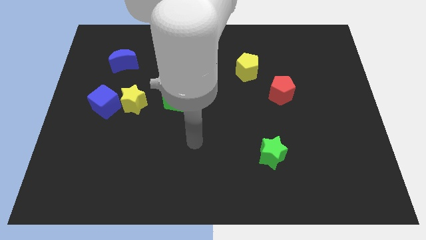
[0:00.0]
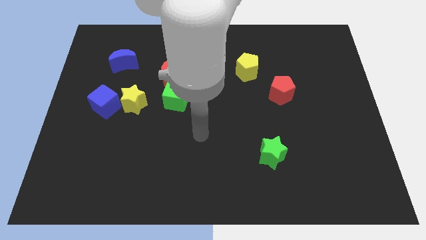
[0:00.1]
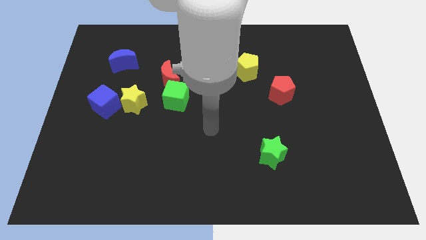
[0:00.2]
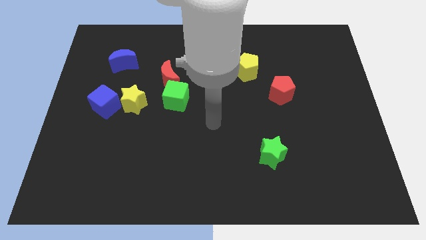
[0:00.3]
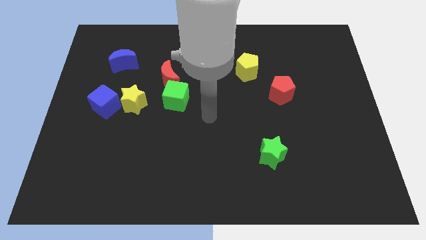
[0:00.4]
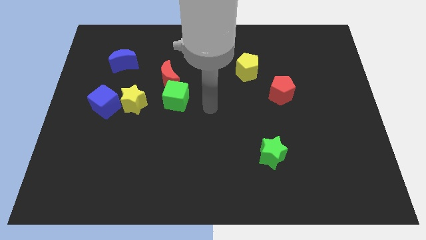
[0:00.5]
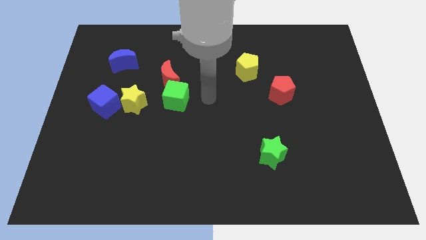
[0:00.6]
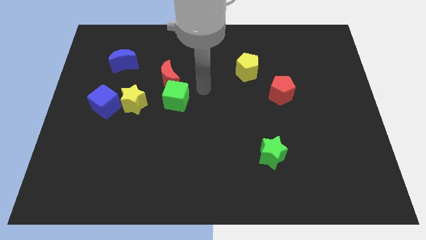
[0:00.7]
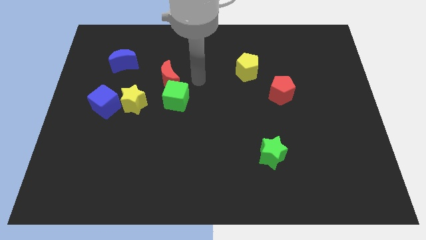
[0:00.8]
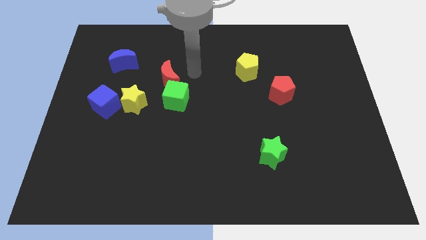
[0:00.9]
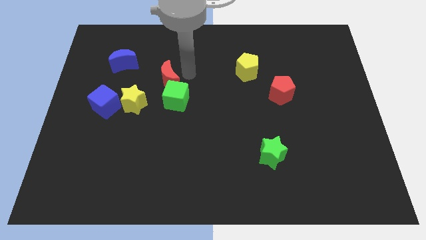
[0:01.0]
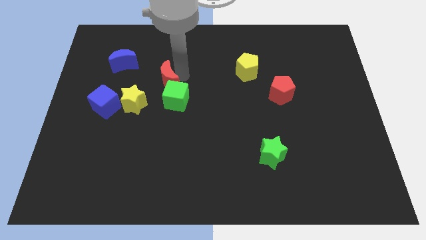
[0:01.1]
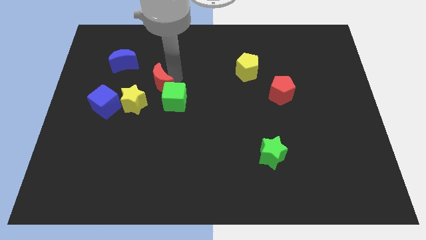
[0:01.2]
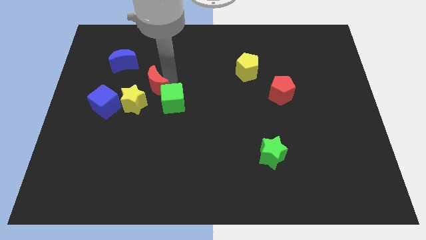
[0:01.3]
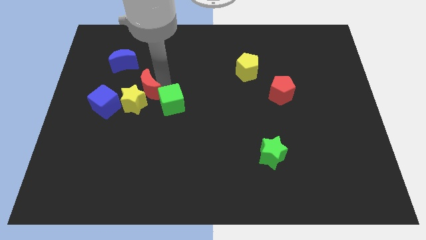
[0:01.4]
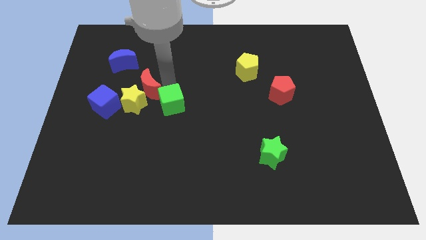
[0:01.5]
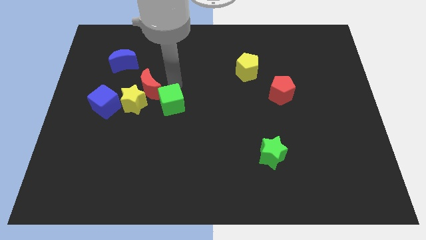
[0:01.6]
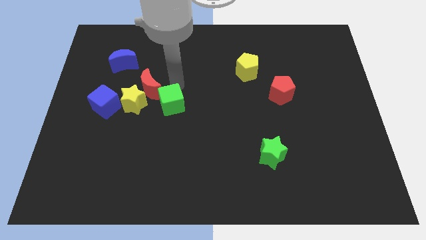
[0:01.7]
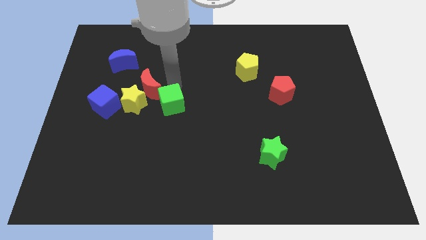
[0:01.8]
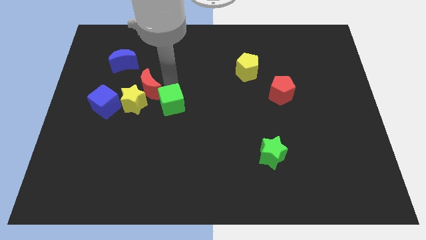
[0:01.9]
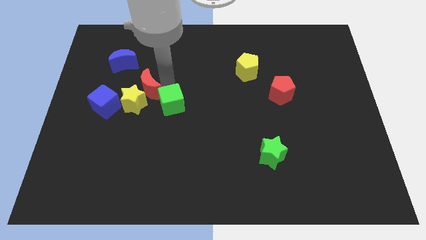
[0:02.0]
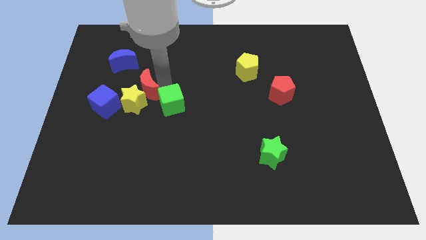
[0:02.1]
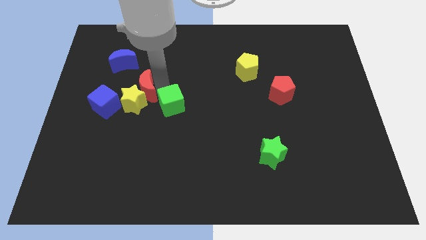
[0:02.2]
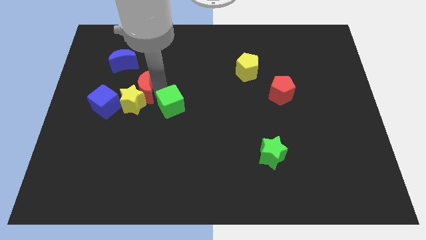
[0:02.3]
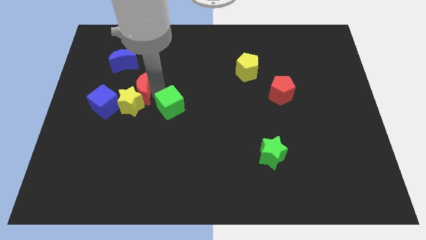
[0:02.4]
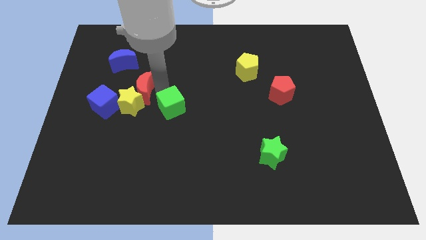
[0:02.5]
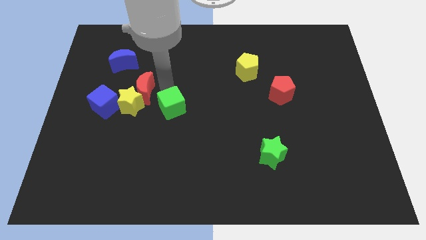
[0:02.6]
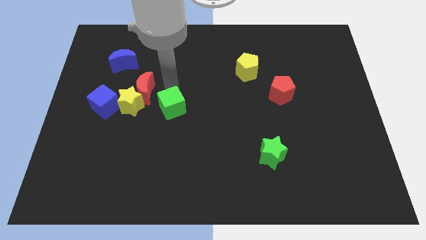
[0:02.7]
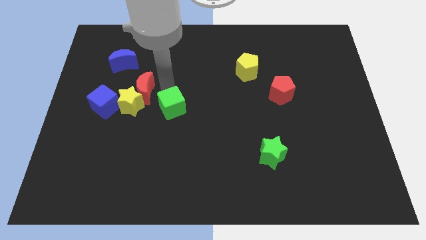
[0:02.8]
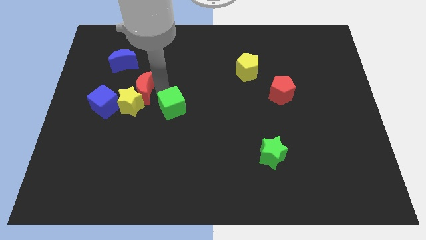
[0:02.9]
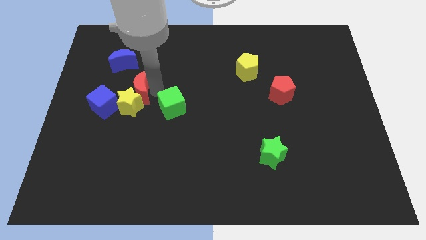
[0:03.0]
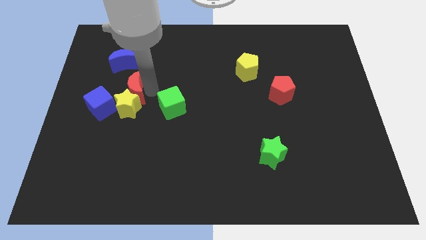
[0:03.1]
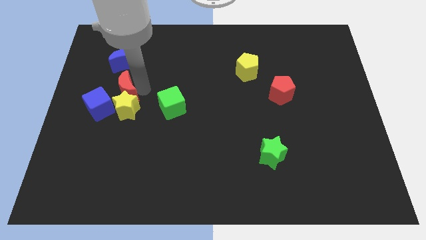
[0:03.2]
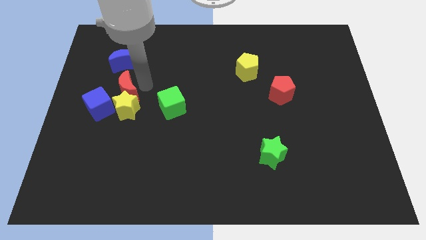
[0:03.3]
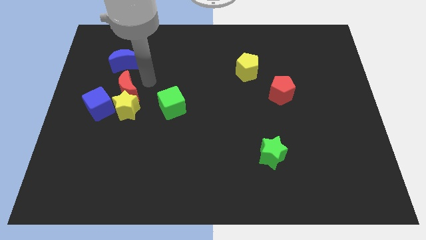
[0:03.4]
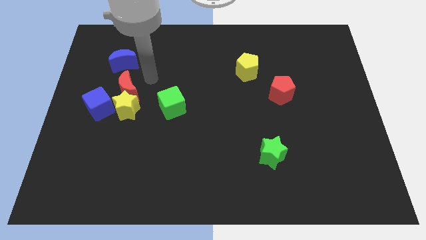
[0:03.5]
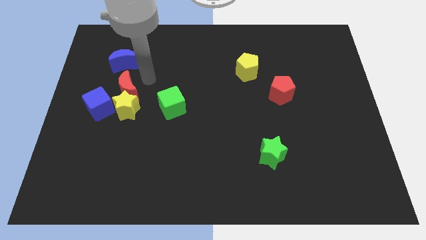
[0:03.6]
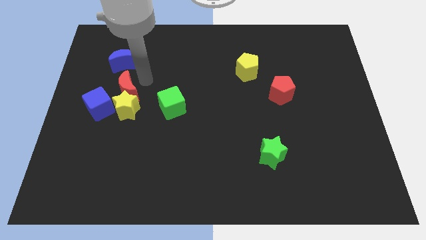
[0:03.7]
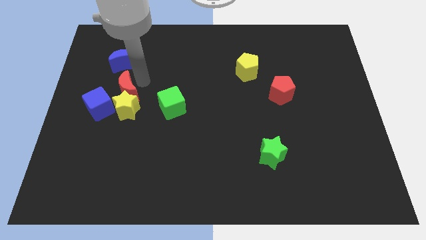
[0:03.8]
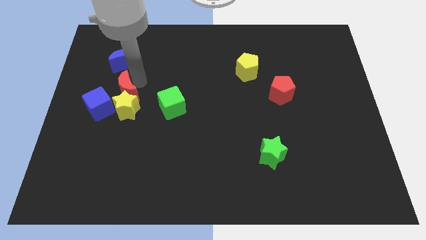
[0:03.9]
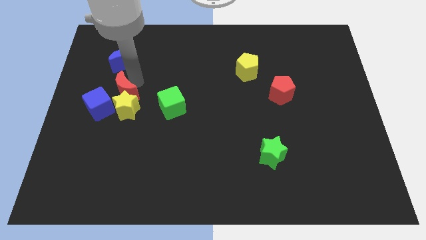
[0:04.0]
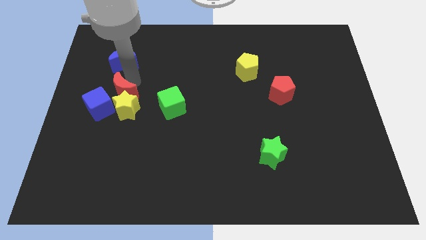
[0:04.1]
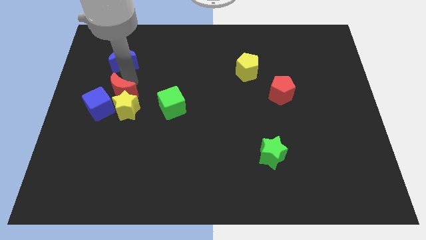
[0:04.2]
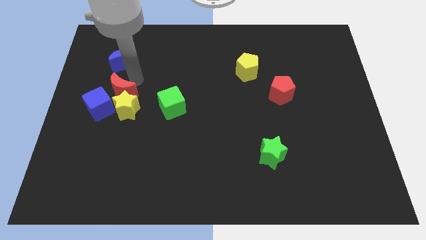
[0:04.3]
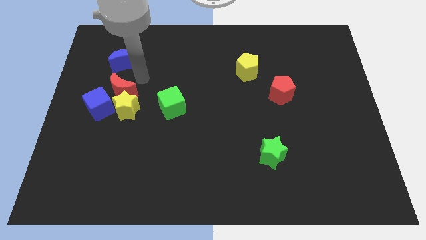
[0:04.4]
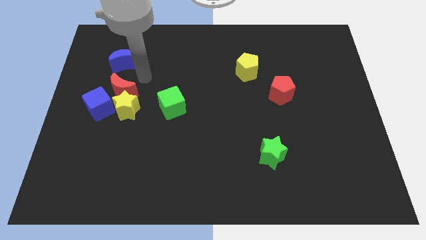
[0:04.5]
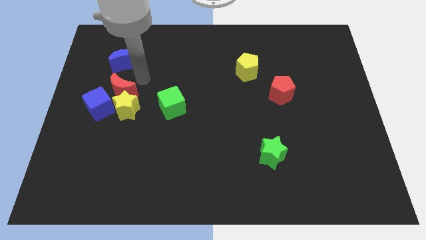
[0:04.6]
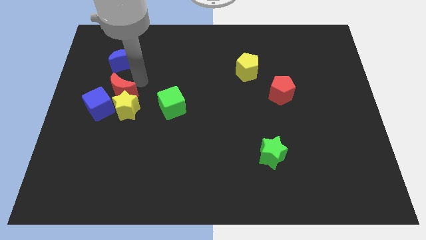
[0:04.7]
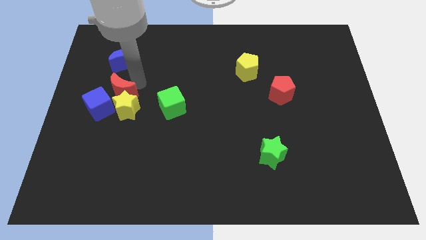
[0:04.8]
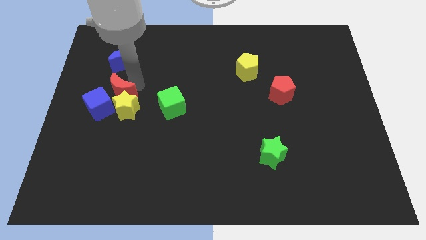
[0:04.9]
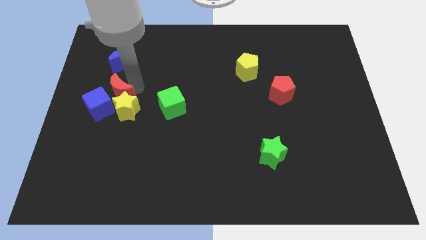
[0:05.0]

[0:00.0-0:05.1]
put the red moon towards the blue cube

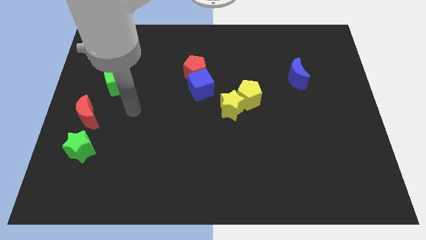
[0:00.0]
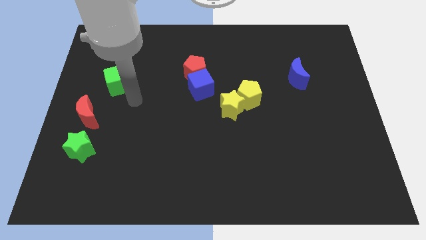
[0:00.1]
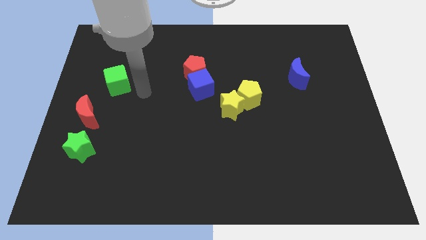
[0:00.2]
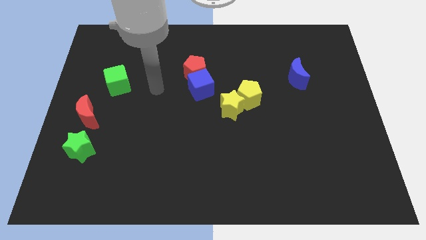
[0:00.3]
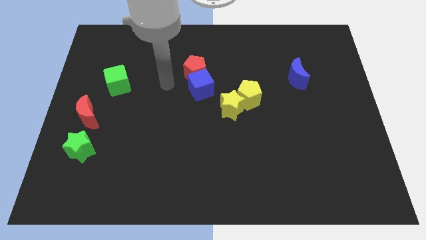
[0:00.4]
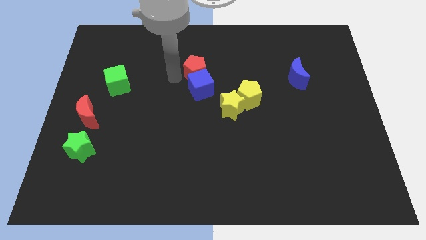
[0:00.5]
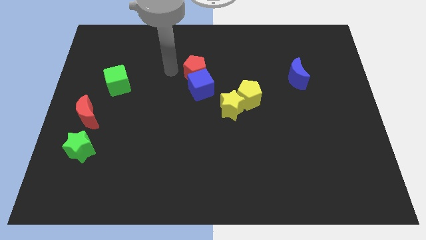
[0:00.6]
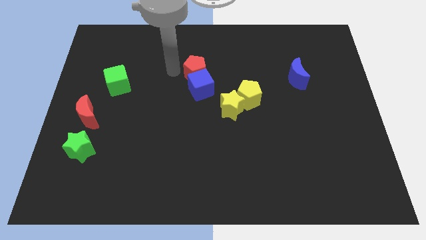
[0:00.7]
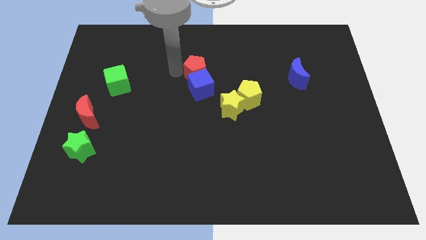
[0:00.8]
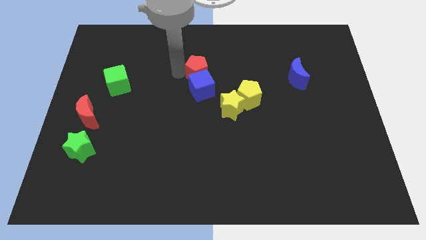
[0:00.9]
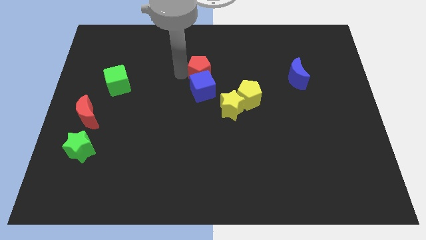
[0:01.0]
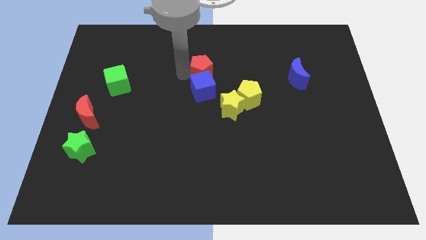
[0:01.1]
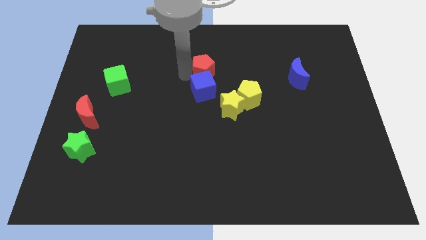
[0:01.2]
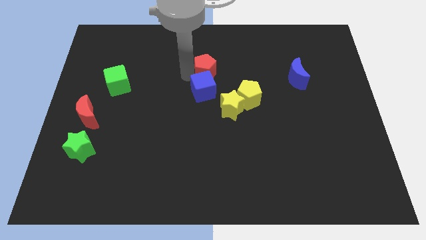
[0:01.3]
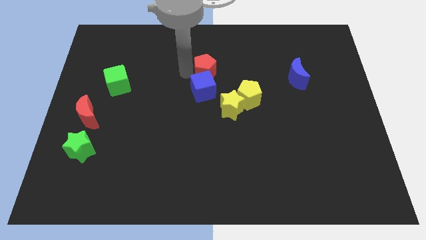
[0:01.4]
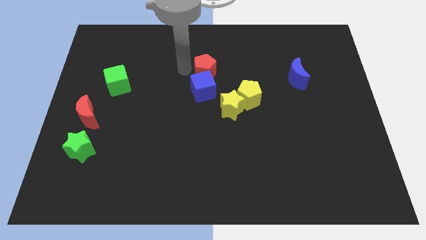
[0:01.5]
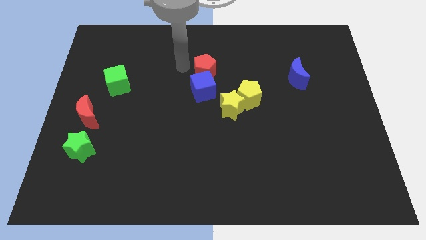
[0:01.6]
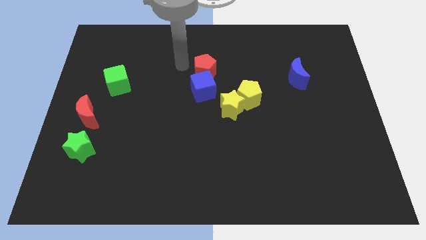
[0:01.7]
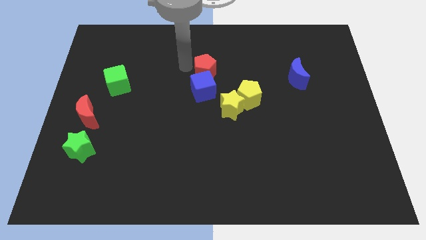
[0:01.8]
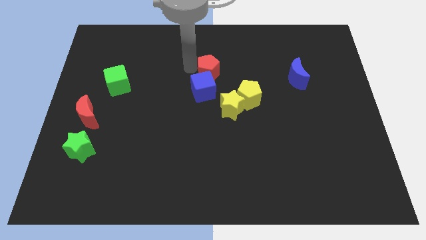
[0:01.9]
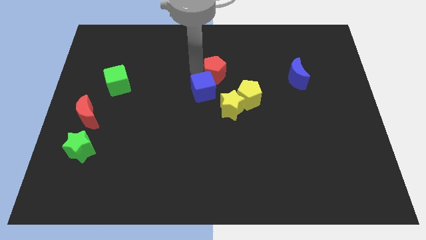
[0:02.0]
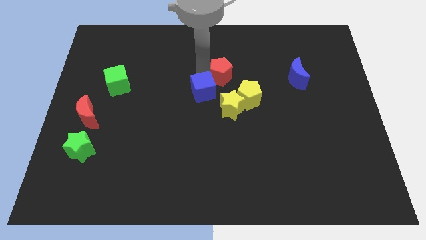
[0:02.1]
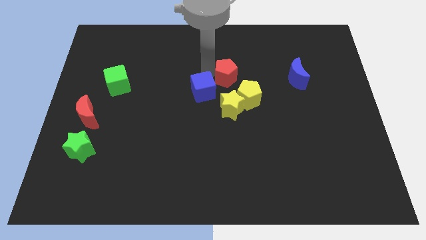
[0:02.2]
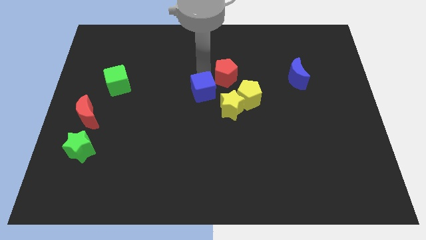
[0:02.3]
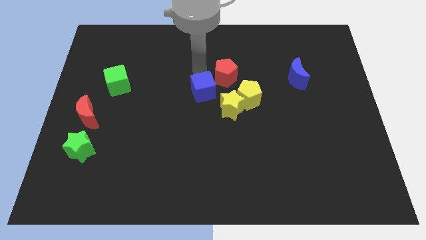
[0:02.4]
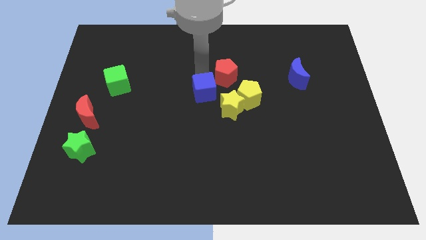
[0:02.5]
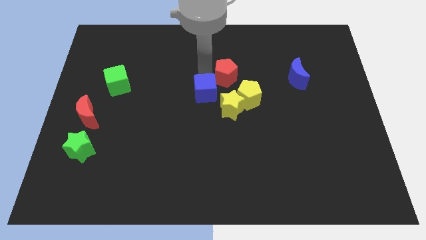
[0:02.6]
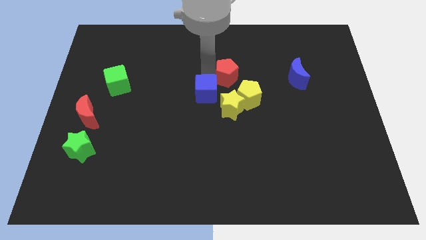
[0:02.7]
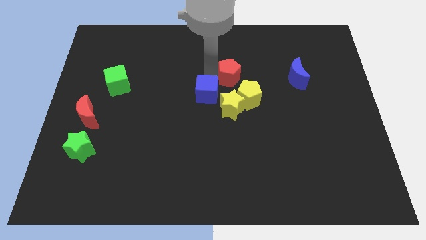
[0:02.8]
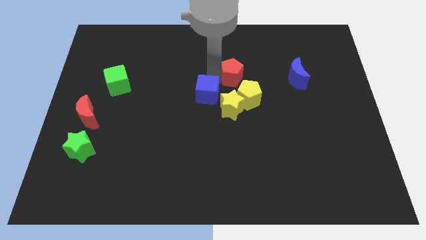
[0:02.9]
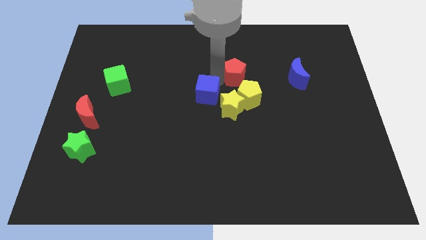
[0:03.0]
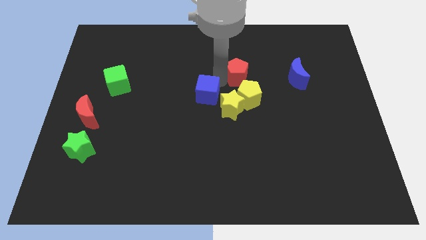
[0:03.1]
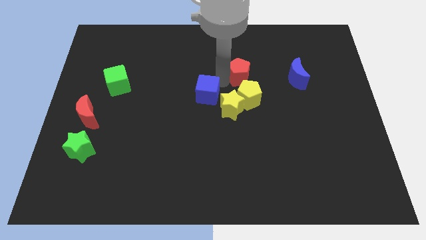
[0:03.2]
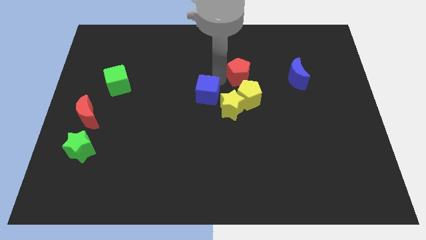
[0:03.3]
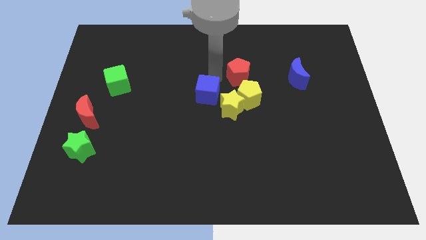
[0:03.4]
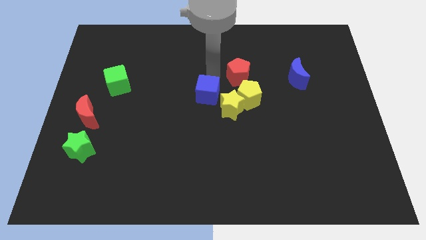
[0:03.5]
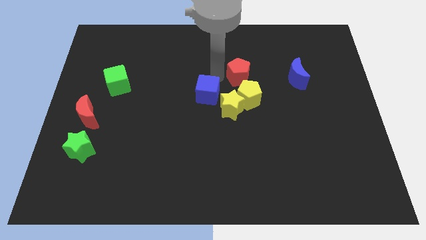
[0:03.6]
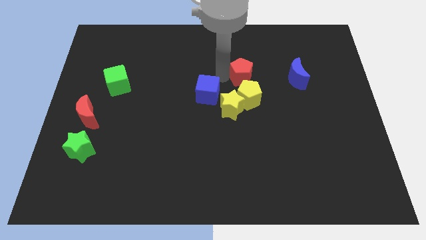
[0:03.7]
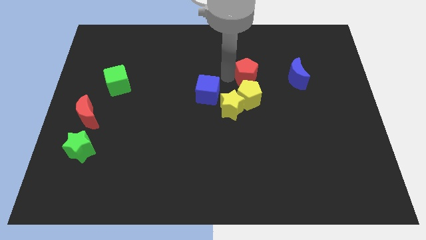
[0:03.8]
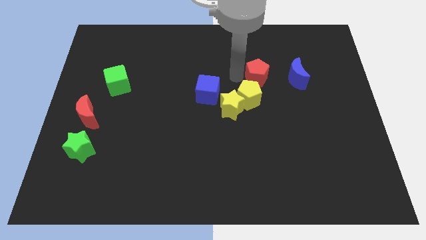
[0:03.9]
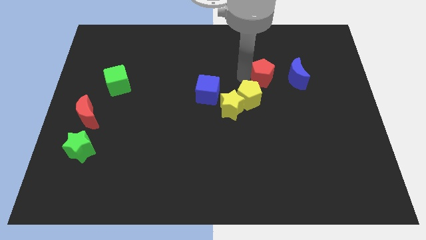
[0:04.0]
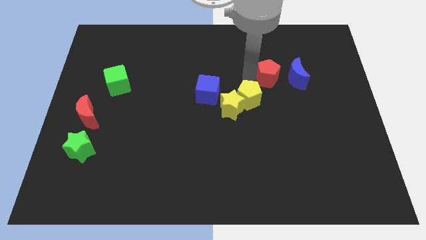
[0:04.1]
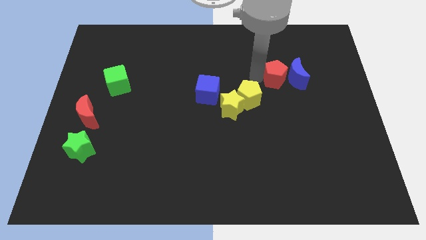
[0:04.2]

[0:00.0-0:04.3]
move the red pentagon towards the blue moon
